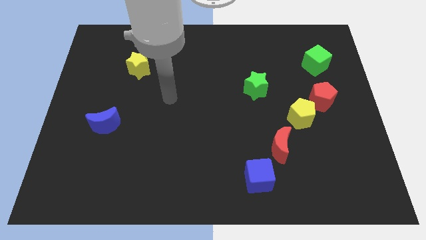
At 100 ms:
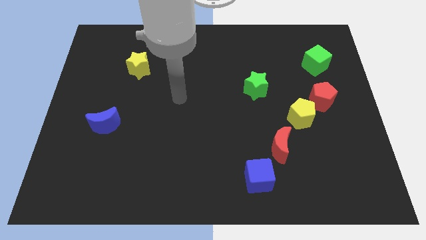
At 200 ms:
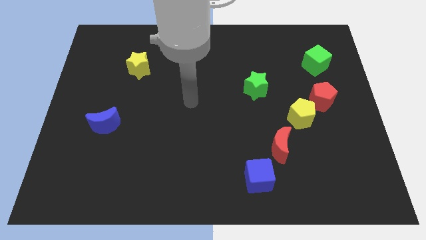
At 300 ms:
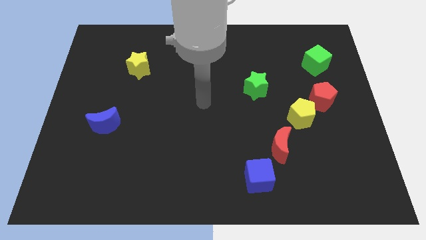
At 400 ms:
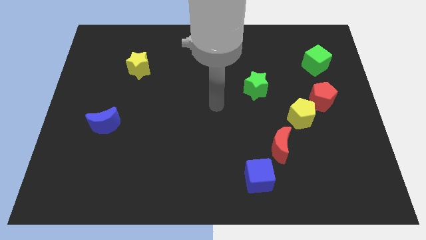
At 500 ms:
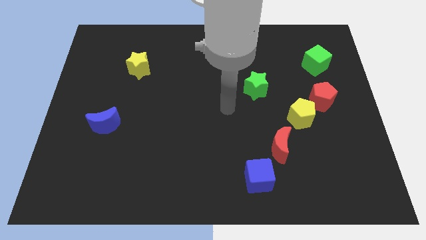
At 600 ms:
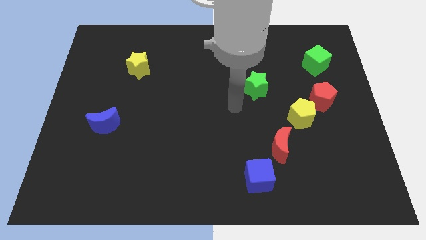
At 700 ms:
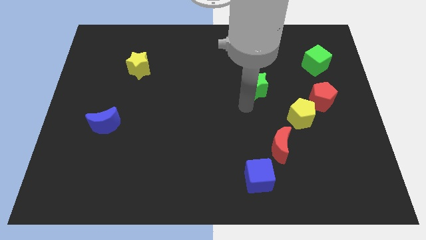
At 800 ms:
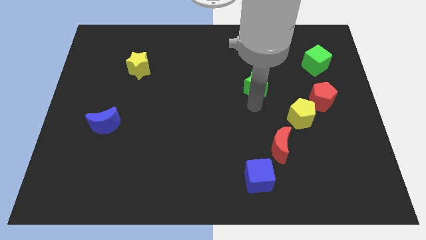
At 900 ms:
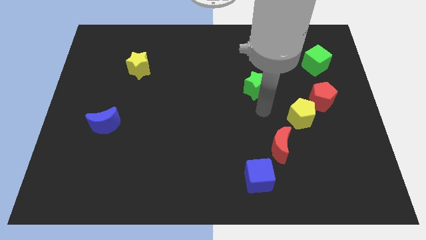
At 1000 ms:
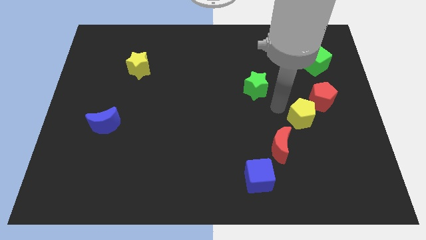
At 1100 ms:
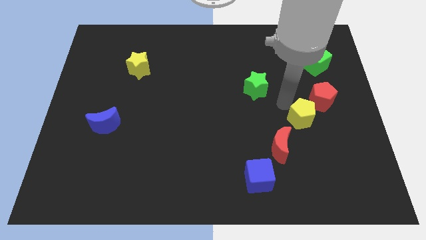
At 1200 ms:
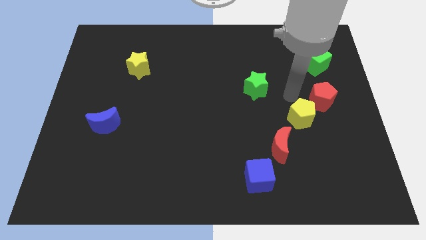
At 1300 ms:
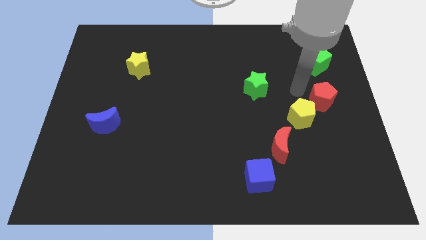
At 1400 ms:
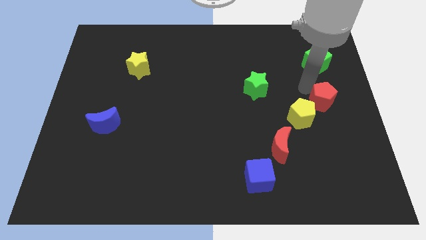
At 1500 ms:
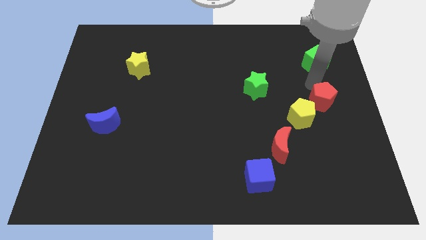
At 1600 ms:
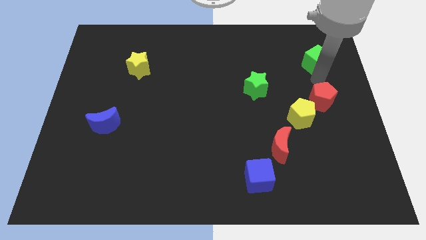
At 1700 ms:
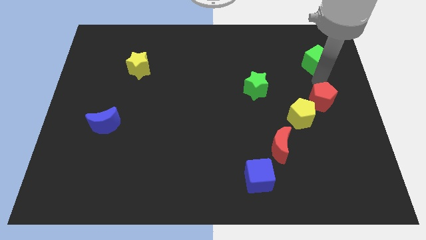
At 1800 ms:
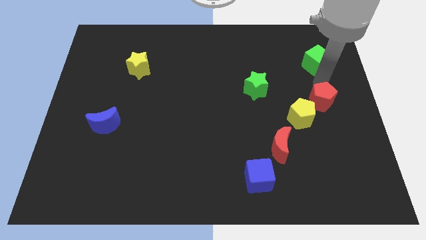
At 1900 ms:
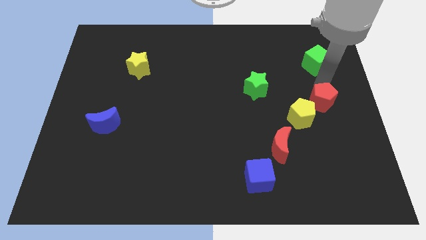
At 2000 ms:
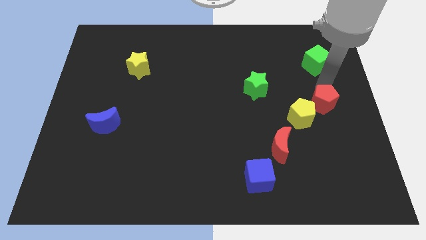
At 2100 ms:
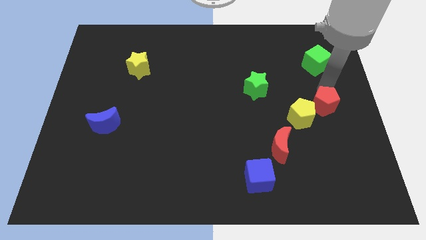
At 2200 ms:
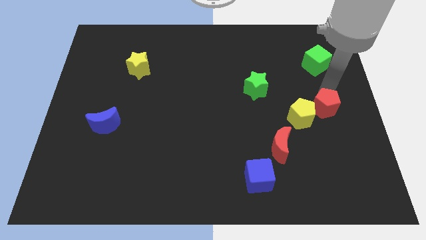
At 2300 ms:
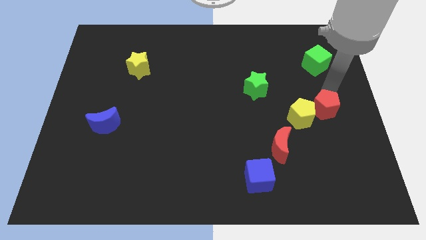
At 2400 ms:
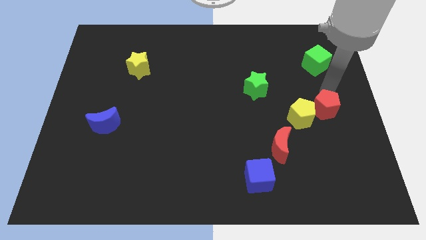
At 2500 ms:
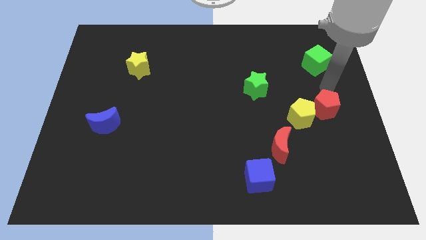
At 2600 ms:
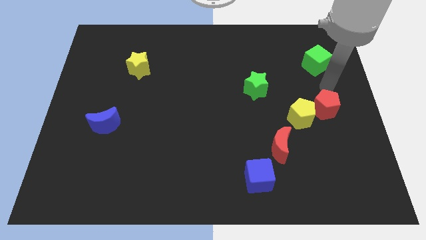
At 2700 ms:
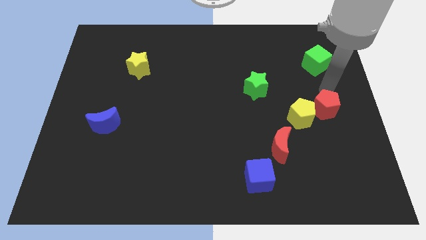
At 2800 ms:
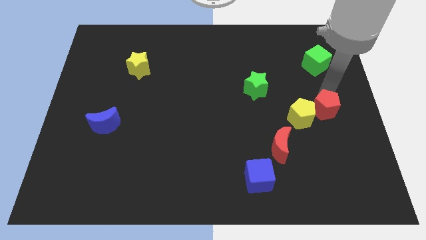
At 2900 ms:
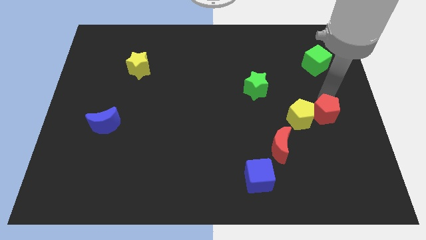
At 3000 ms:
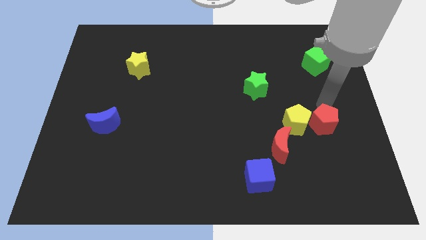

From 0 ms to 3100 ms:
slide the red pentagon down slightly

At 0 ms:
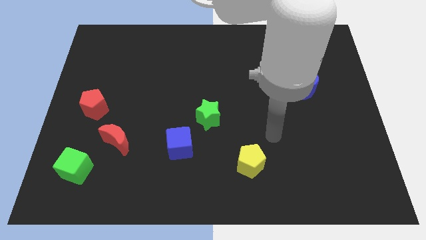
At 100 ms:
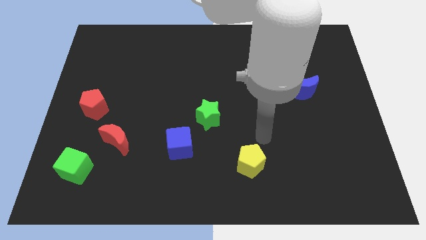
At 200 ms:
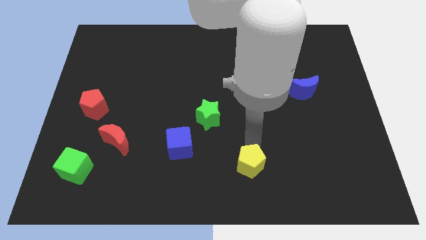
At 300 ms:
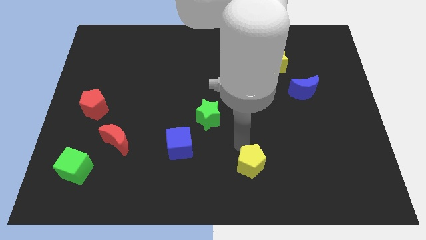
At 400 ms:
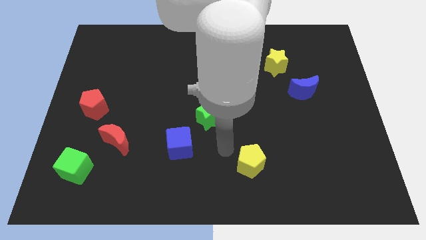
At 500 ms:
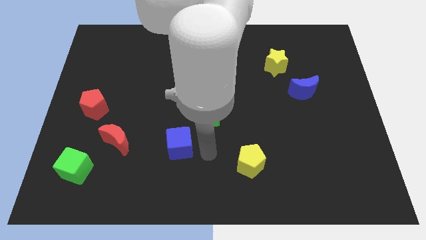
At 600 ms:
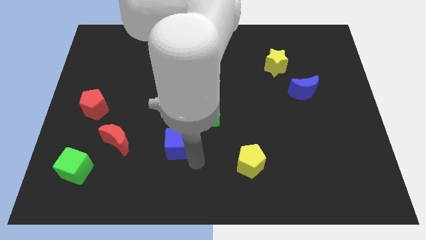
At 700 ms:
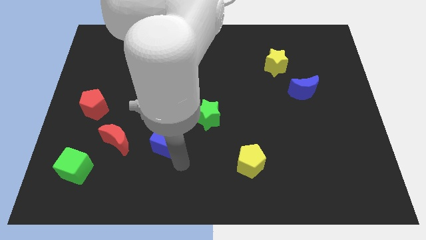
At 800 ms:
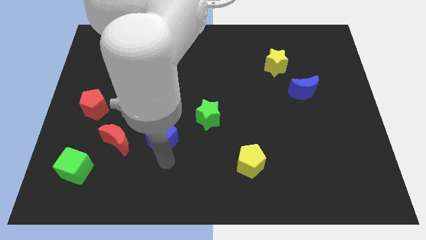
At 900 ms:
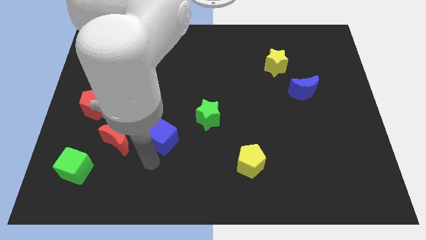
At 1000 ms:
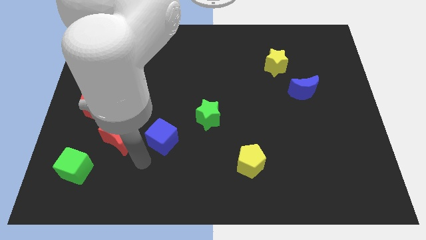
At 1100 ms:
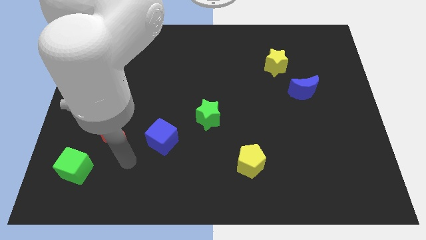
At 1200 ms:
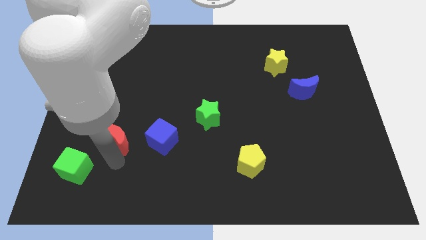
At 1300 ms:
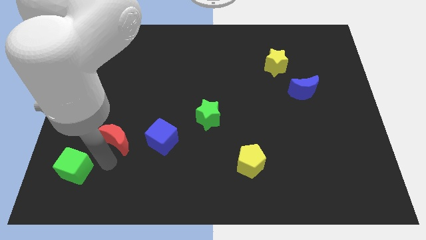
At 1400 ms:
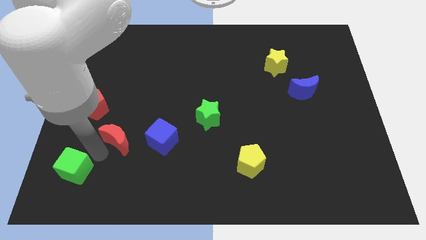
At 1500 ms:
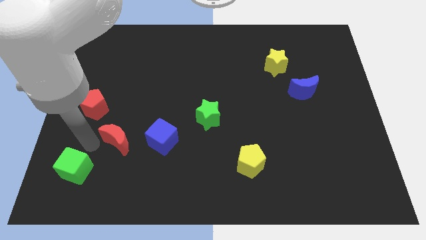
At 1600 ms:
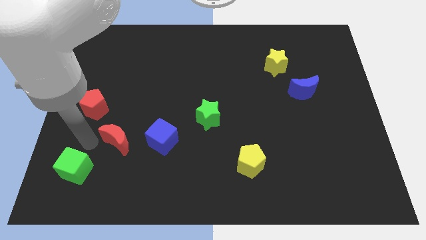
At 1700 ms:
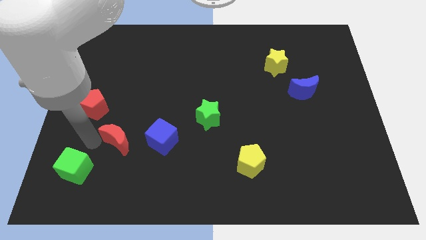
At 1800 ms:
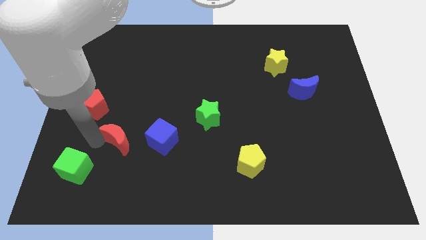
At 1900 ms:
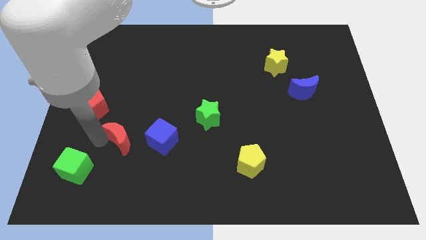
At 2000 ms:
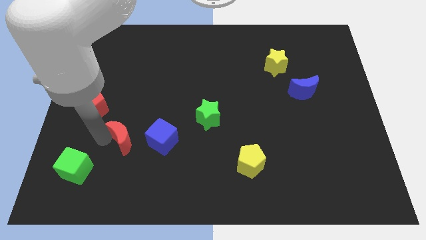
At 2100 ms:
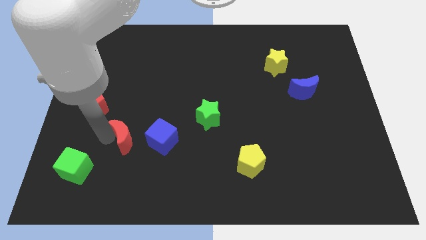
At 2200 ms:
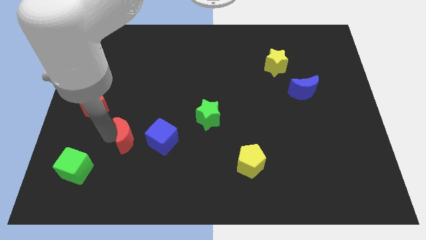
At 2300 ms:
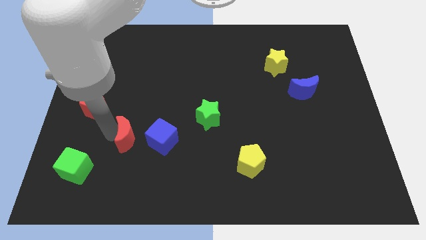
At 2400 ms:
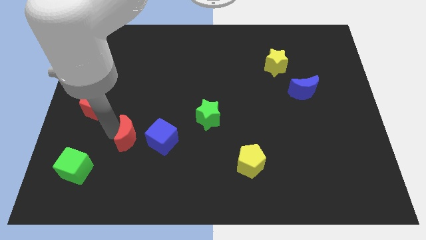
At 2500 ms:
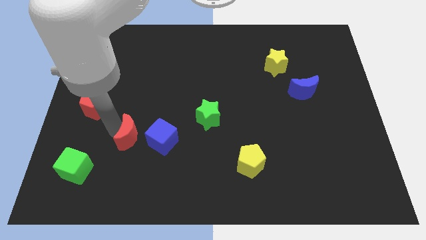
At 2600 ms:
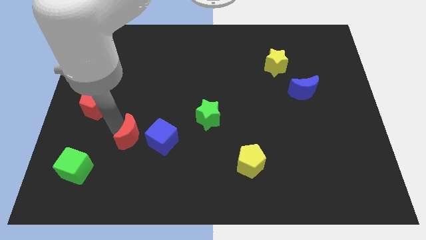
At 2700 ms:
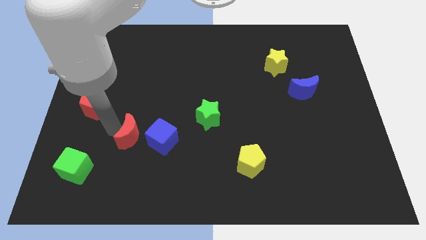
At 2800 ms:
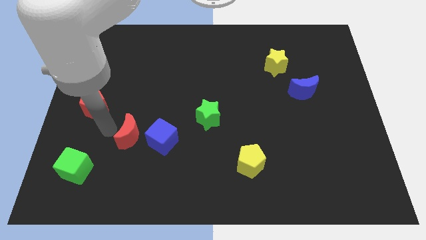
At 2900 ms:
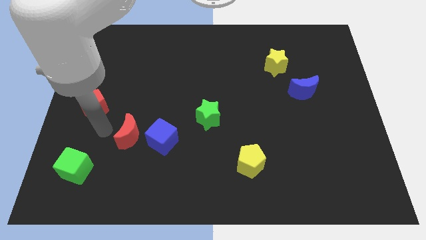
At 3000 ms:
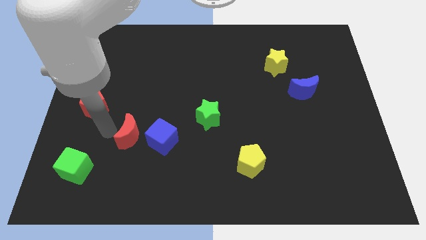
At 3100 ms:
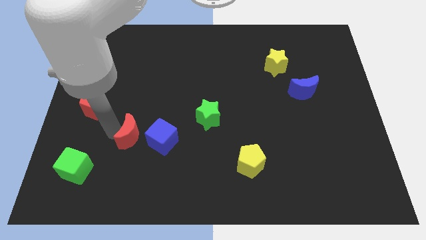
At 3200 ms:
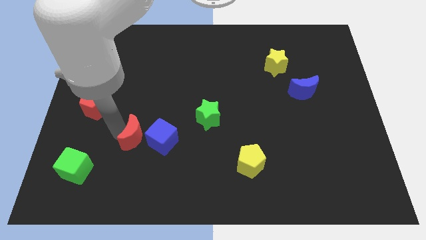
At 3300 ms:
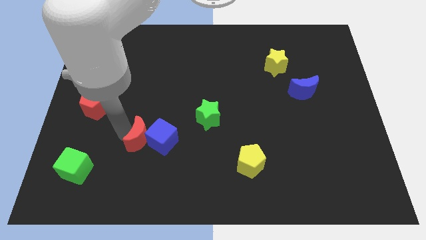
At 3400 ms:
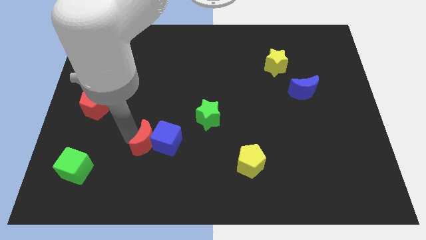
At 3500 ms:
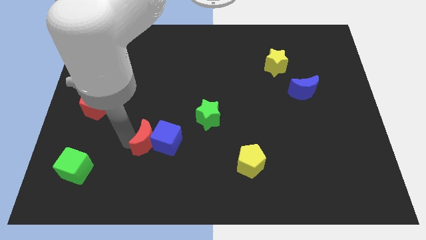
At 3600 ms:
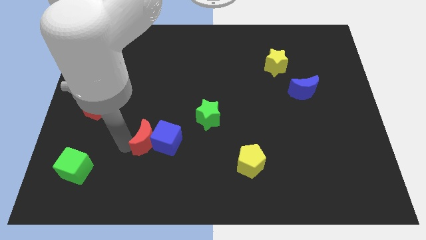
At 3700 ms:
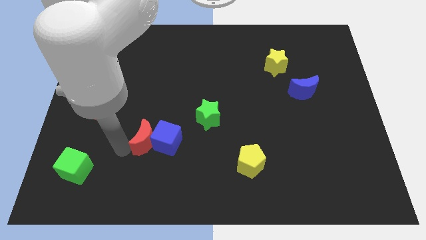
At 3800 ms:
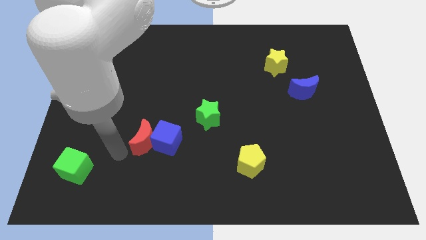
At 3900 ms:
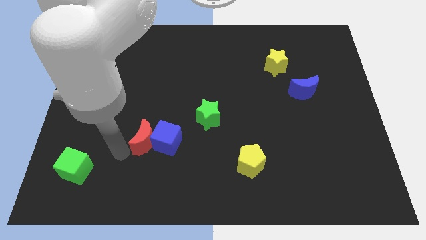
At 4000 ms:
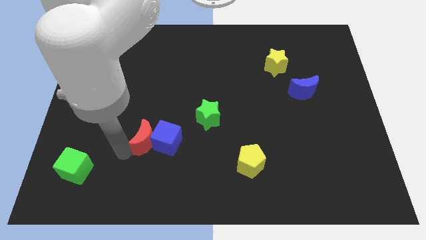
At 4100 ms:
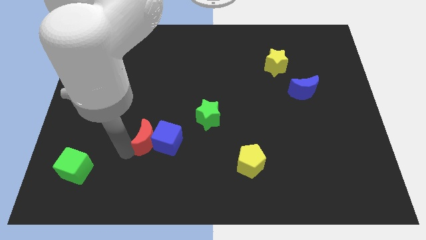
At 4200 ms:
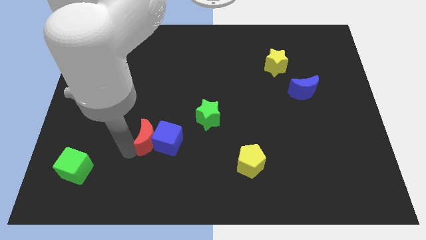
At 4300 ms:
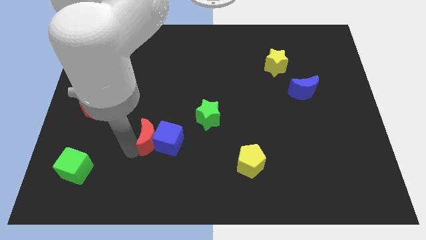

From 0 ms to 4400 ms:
push the red moon right slightly

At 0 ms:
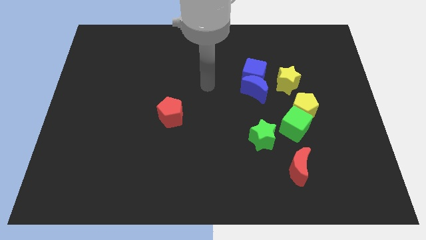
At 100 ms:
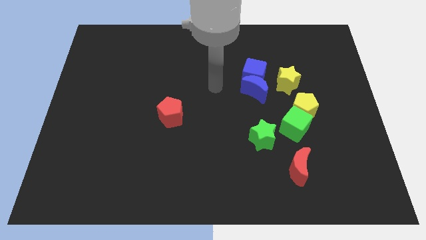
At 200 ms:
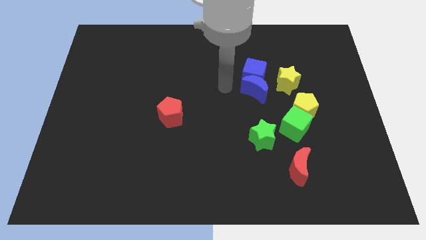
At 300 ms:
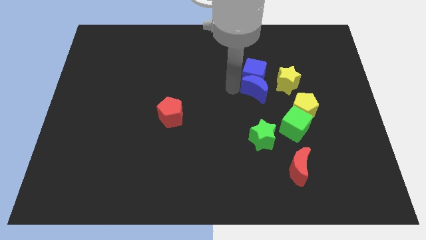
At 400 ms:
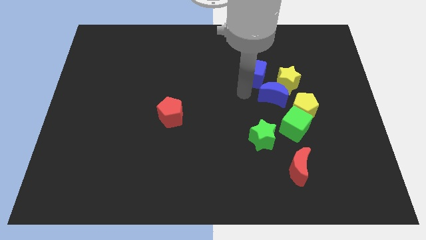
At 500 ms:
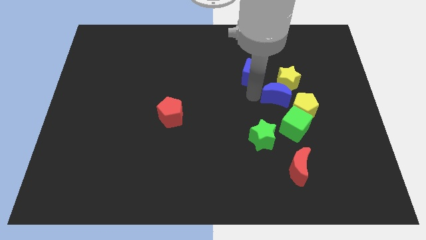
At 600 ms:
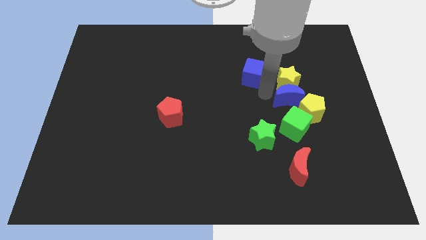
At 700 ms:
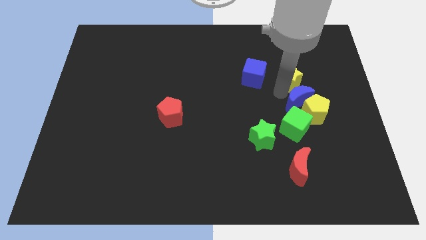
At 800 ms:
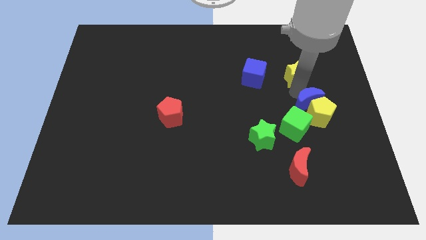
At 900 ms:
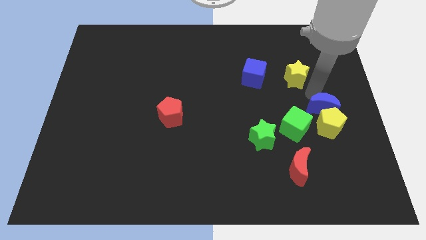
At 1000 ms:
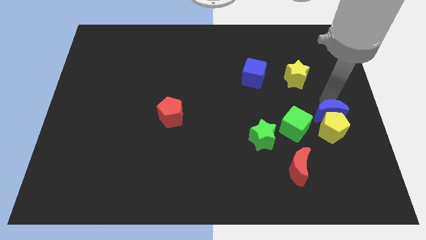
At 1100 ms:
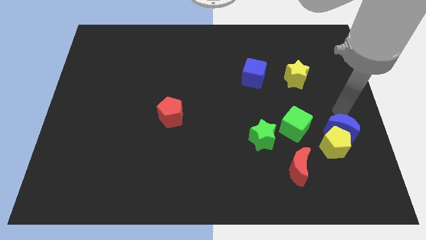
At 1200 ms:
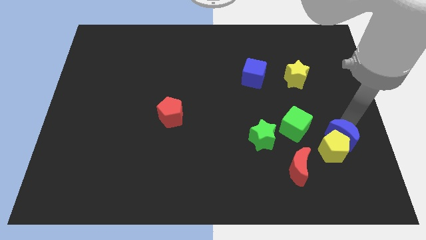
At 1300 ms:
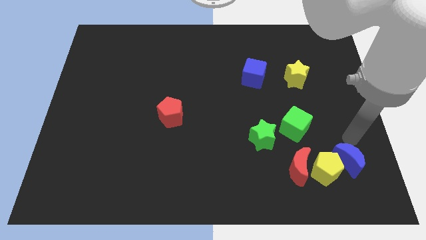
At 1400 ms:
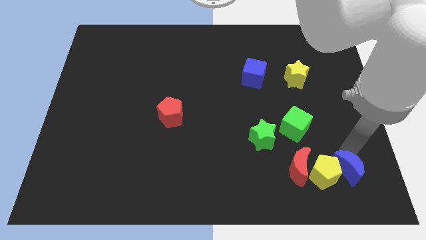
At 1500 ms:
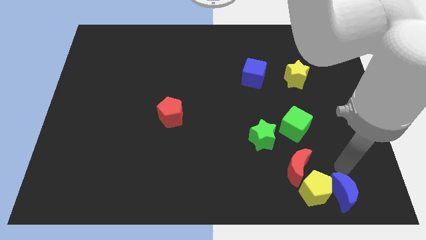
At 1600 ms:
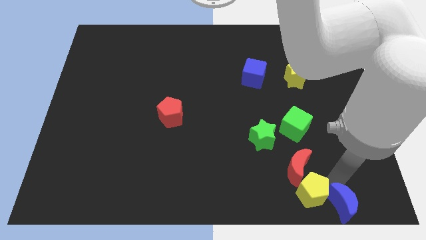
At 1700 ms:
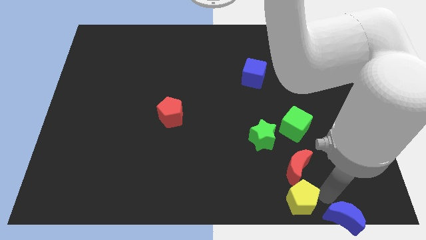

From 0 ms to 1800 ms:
slightly push the yellow pentagon downwards and left
